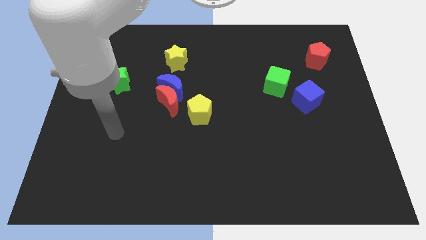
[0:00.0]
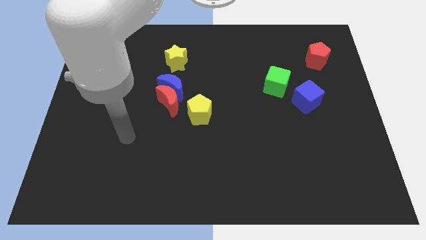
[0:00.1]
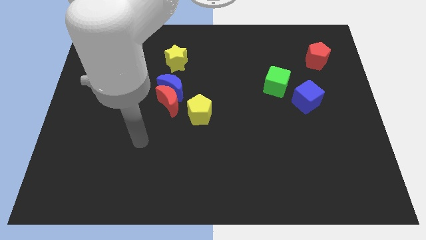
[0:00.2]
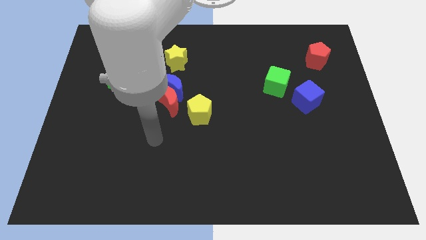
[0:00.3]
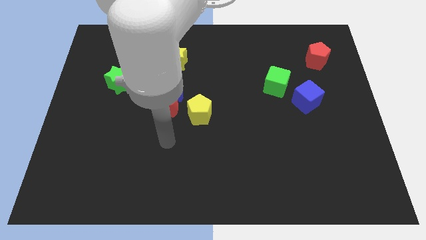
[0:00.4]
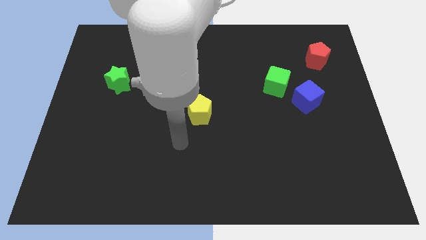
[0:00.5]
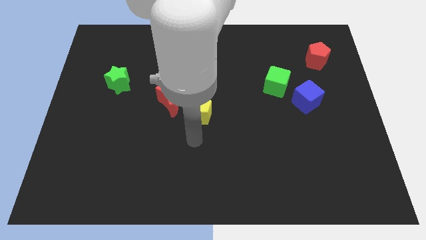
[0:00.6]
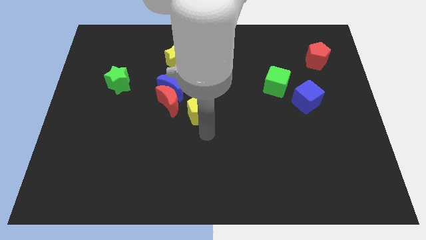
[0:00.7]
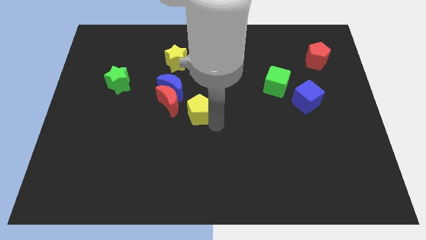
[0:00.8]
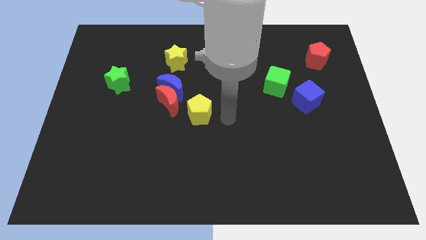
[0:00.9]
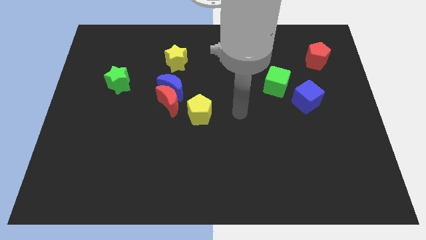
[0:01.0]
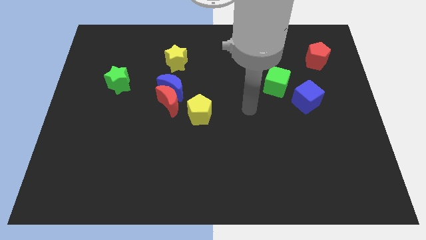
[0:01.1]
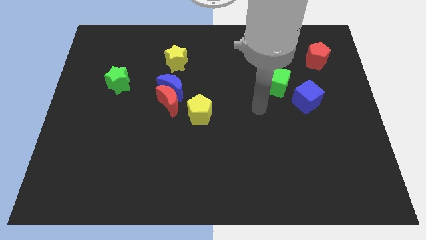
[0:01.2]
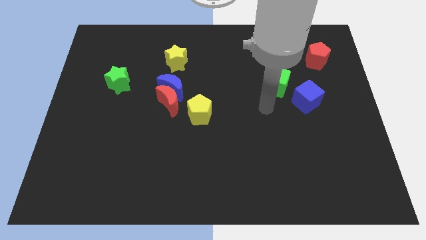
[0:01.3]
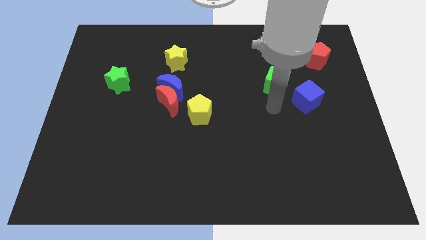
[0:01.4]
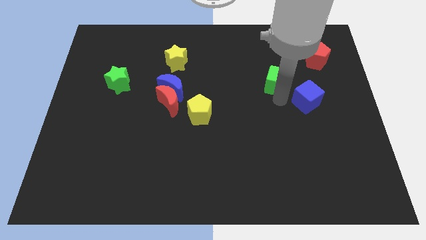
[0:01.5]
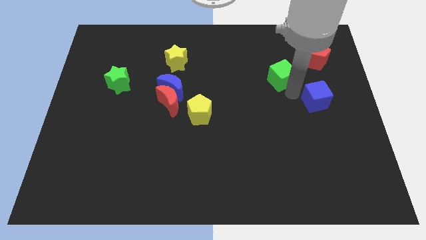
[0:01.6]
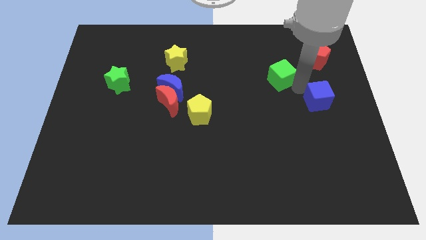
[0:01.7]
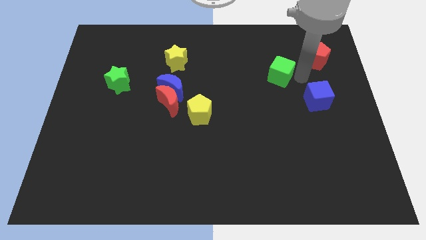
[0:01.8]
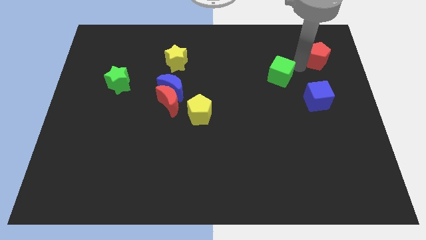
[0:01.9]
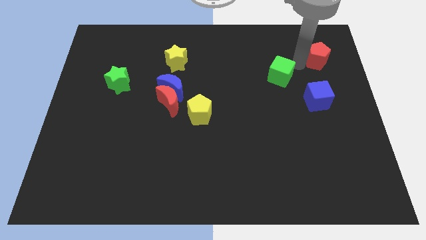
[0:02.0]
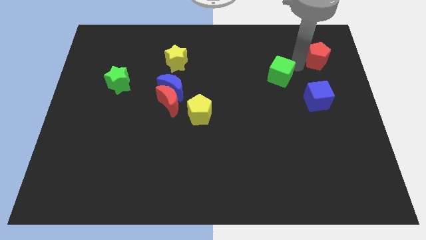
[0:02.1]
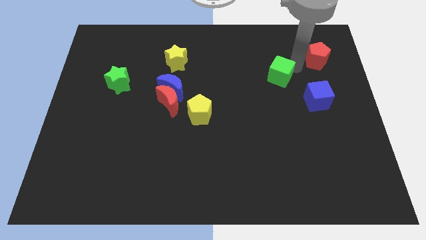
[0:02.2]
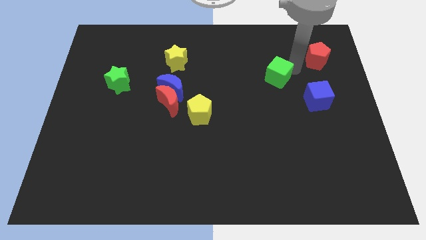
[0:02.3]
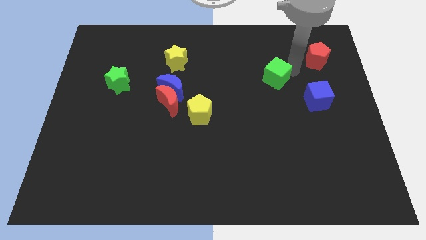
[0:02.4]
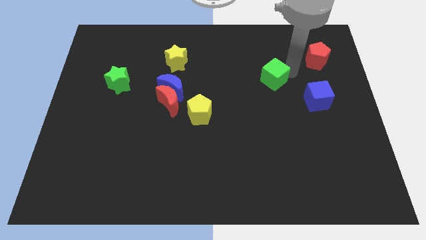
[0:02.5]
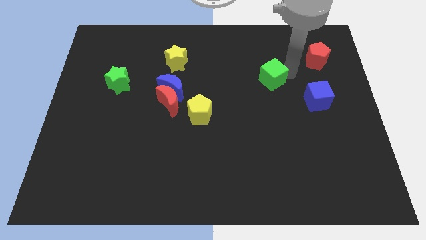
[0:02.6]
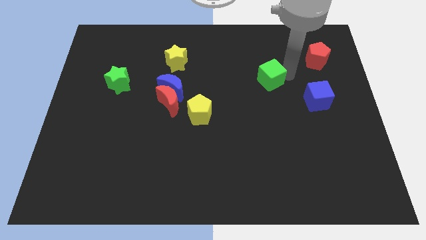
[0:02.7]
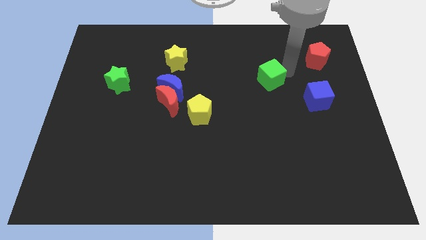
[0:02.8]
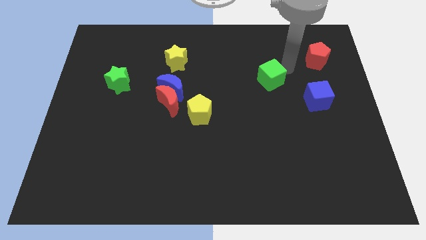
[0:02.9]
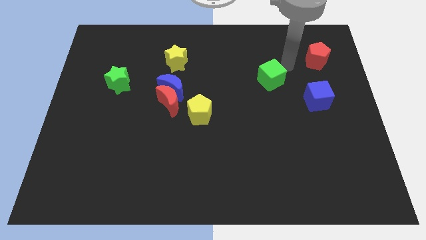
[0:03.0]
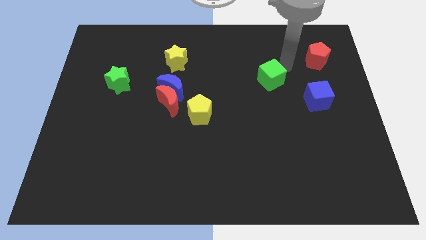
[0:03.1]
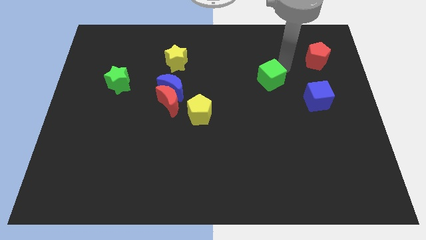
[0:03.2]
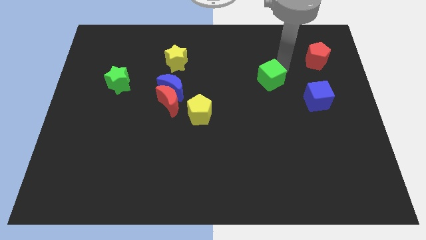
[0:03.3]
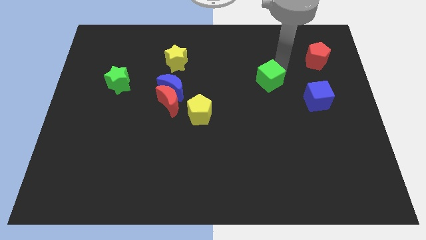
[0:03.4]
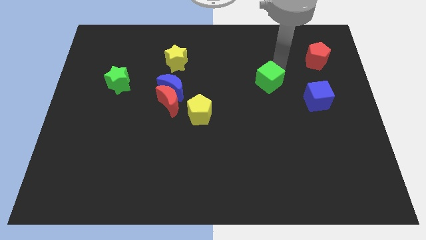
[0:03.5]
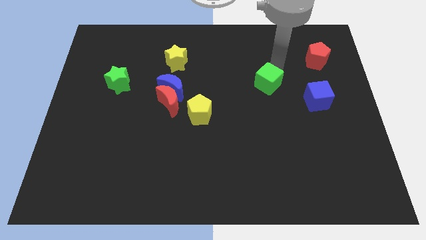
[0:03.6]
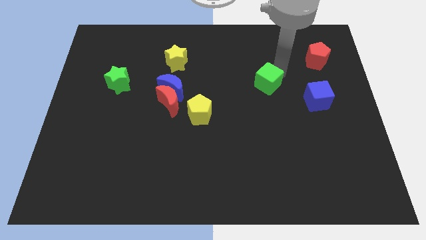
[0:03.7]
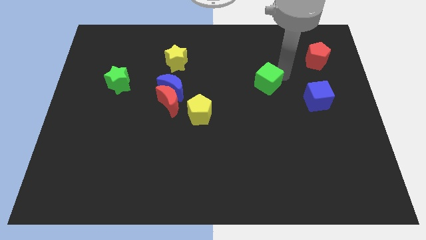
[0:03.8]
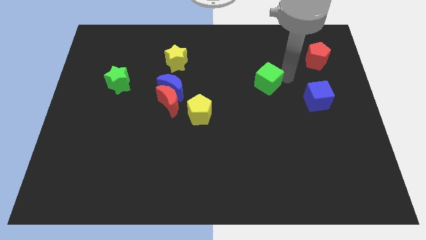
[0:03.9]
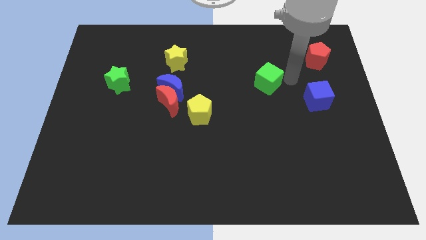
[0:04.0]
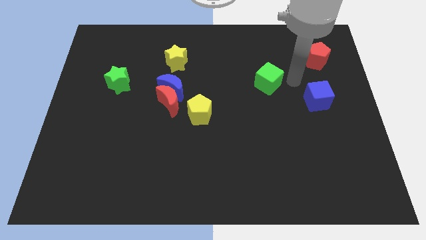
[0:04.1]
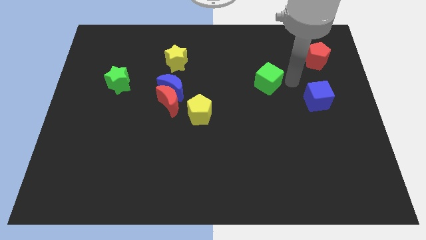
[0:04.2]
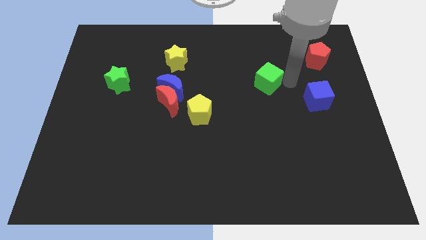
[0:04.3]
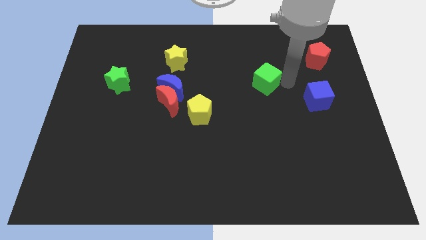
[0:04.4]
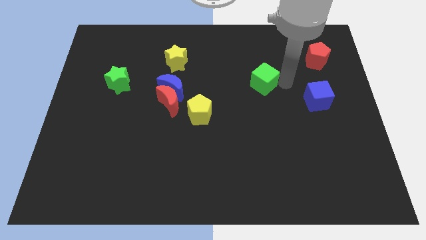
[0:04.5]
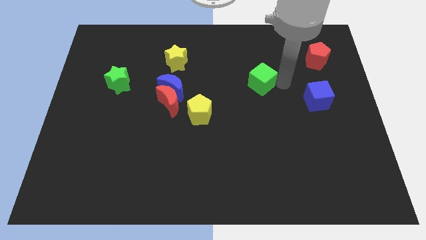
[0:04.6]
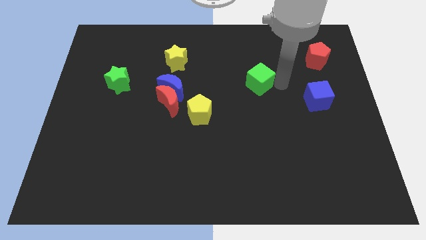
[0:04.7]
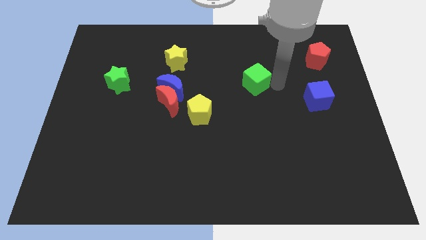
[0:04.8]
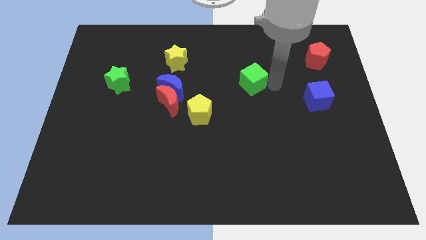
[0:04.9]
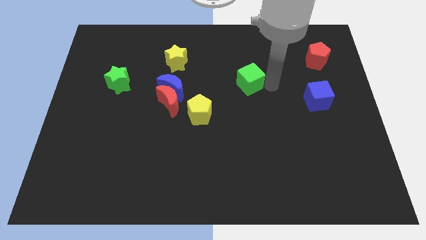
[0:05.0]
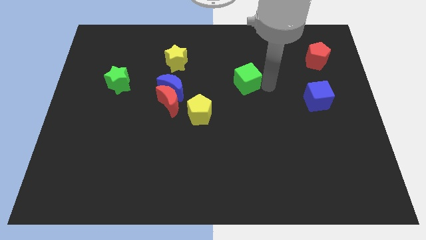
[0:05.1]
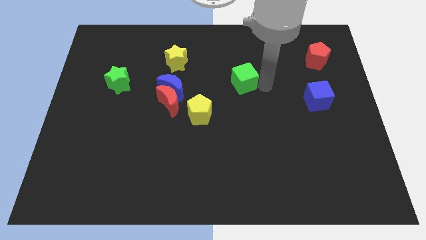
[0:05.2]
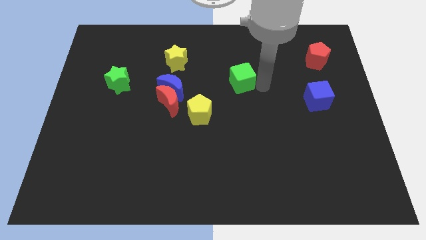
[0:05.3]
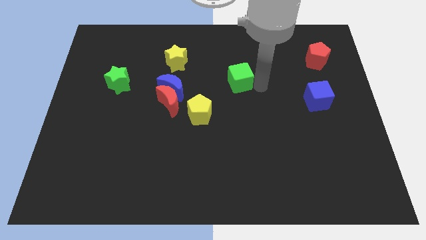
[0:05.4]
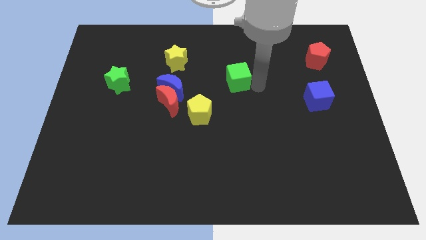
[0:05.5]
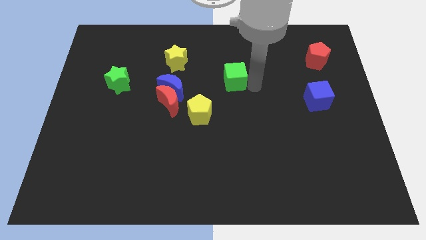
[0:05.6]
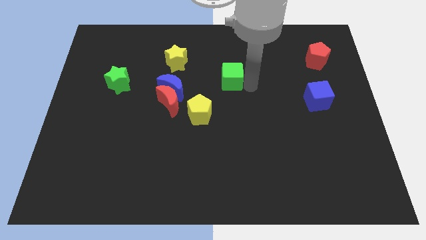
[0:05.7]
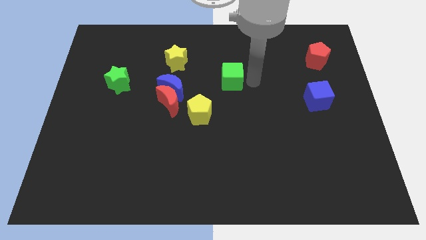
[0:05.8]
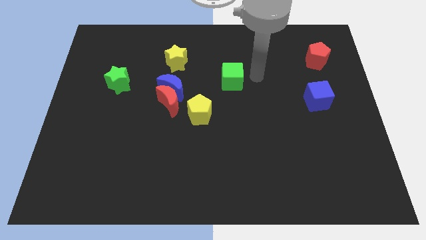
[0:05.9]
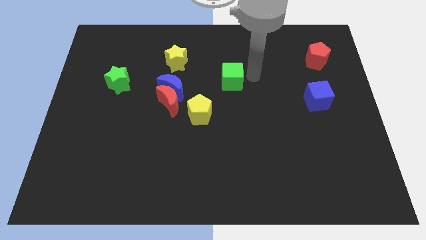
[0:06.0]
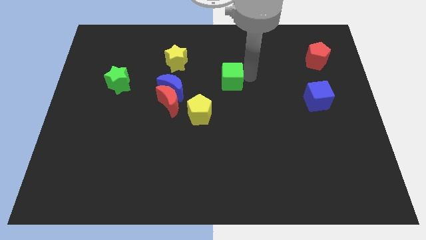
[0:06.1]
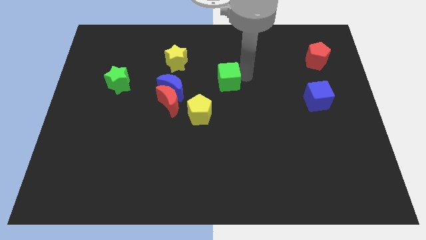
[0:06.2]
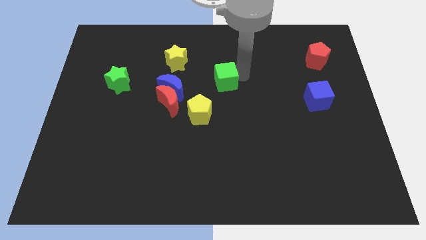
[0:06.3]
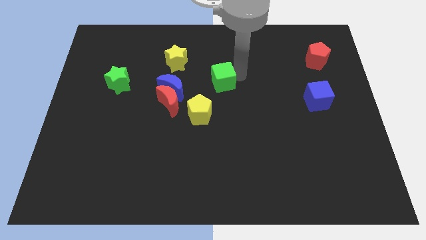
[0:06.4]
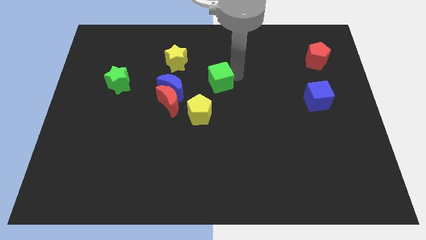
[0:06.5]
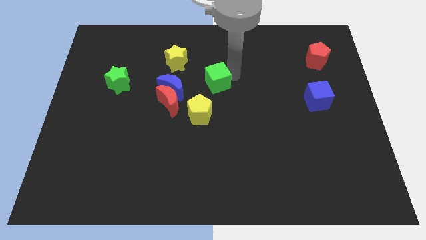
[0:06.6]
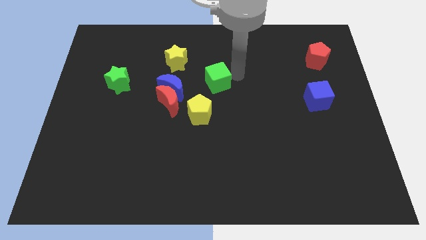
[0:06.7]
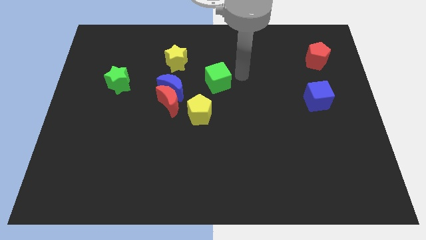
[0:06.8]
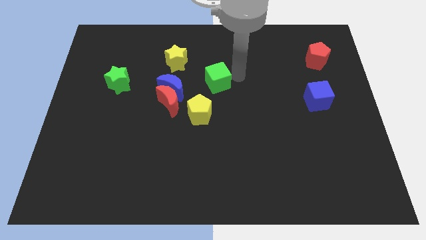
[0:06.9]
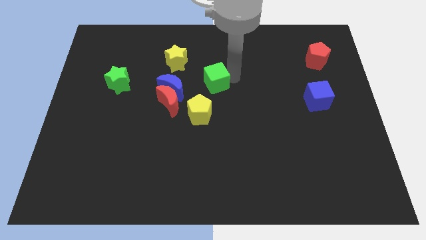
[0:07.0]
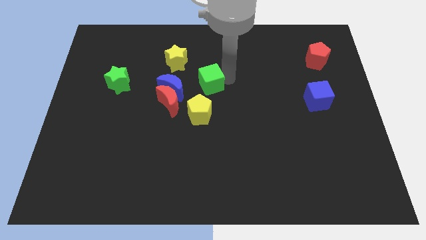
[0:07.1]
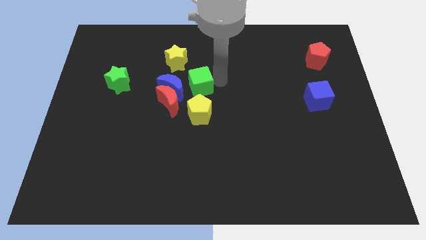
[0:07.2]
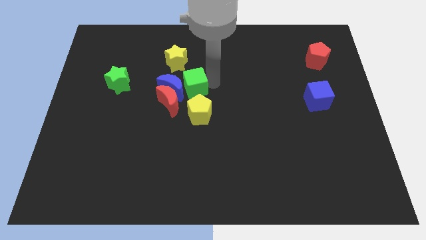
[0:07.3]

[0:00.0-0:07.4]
put the green cube towards the blue moon

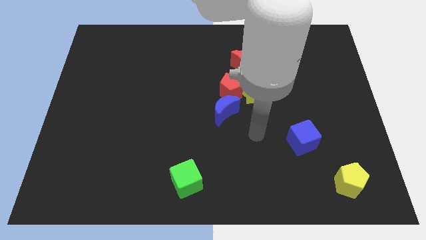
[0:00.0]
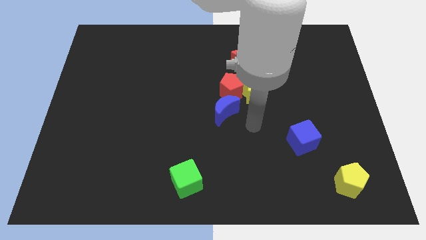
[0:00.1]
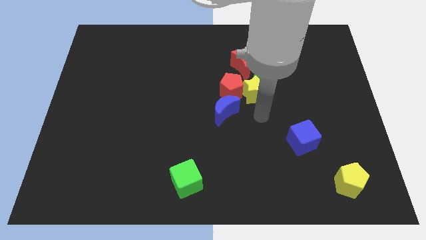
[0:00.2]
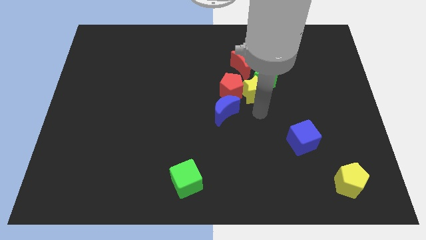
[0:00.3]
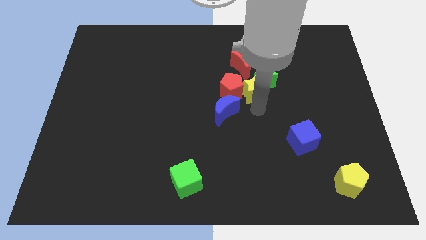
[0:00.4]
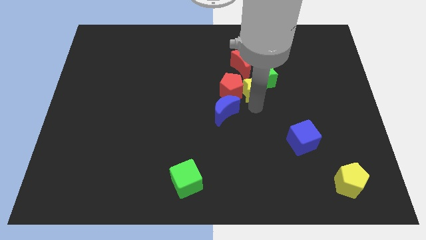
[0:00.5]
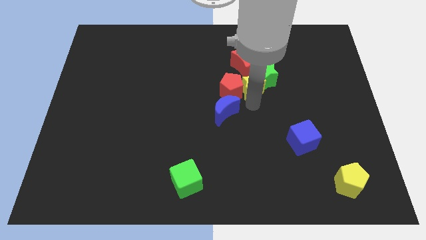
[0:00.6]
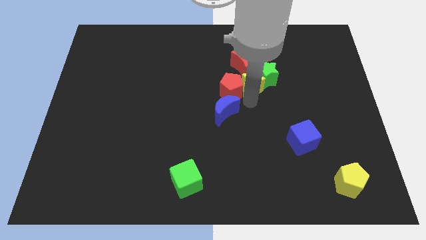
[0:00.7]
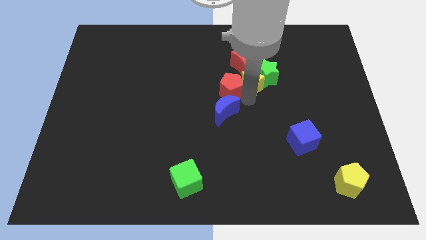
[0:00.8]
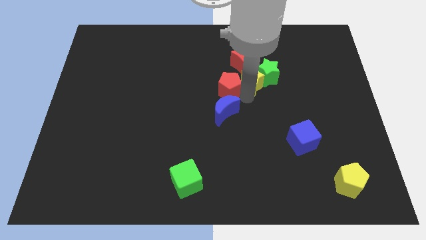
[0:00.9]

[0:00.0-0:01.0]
slide the yellow star close to the red moon
